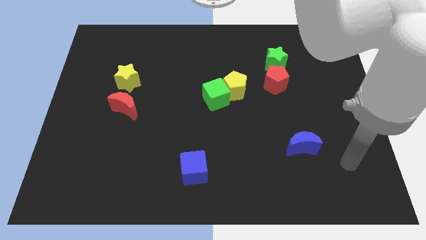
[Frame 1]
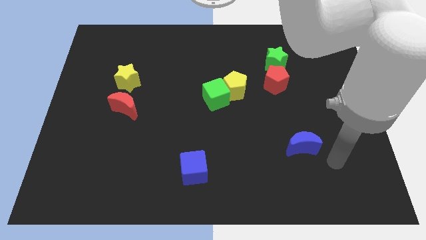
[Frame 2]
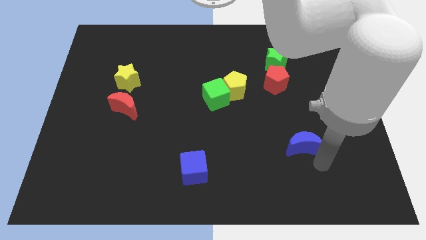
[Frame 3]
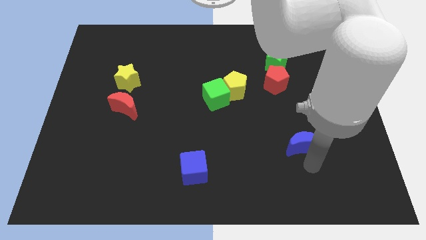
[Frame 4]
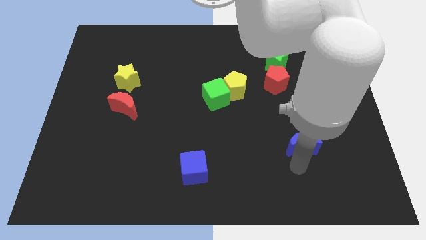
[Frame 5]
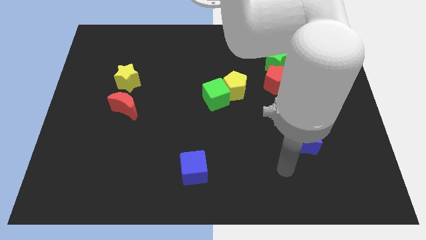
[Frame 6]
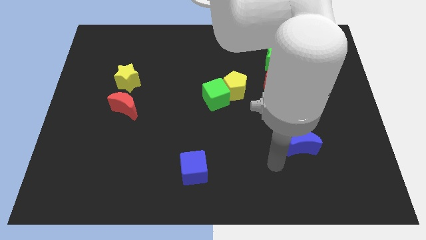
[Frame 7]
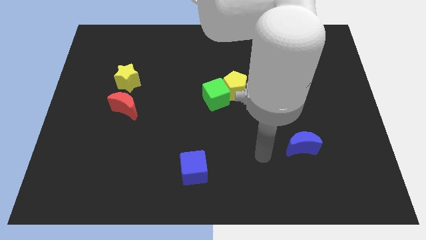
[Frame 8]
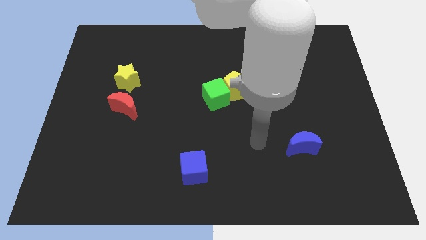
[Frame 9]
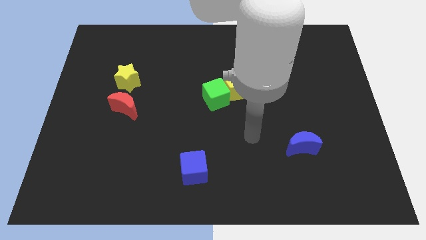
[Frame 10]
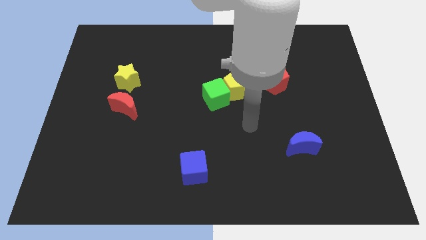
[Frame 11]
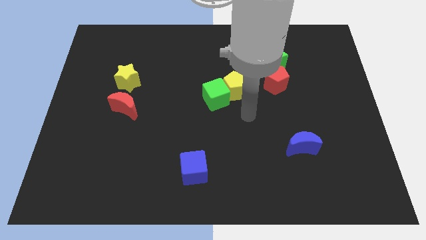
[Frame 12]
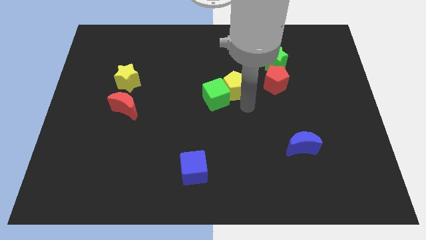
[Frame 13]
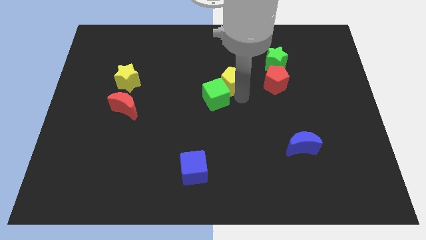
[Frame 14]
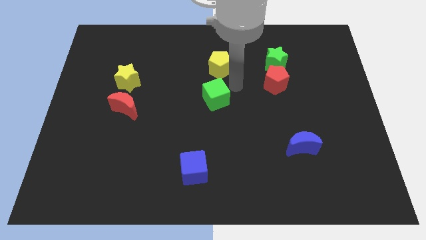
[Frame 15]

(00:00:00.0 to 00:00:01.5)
pull the green cube apart from the yellow pentagon

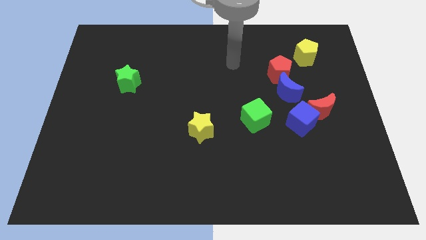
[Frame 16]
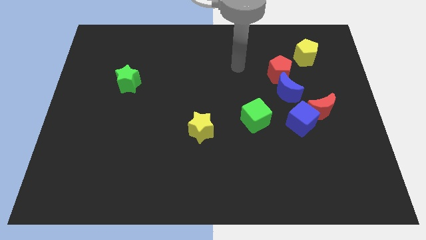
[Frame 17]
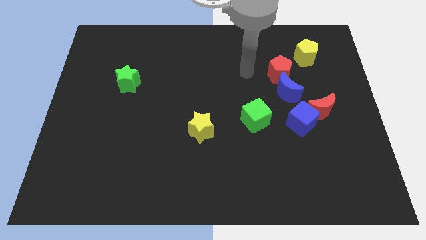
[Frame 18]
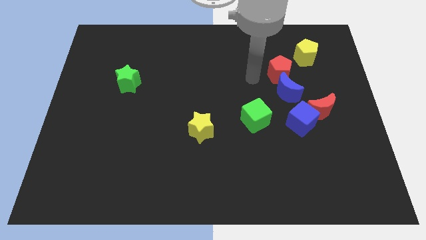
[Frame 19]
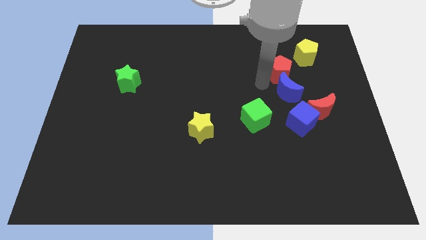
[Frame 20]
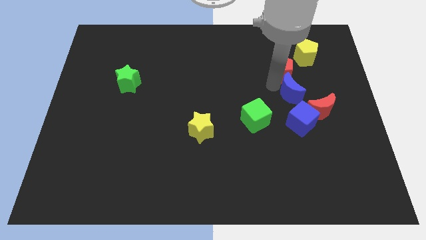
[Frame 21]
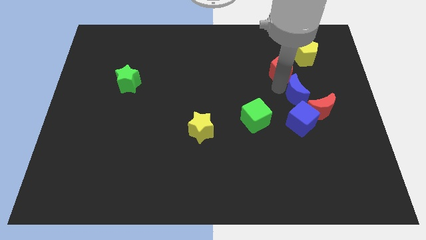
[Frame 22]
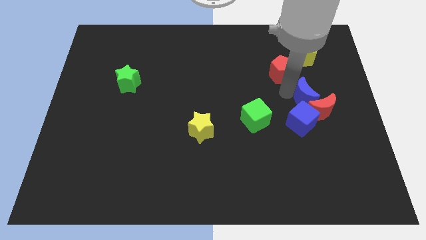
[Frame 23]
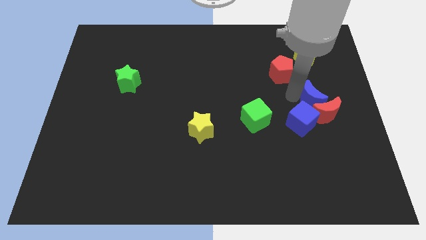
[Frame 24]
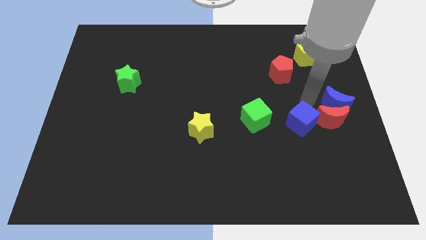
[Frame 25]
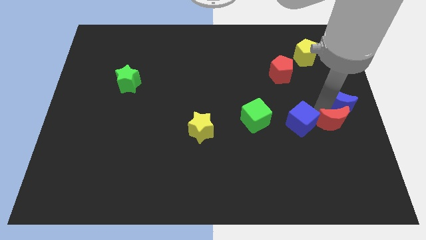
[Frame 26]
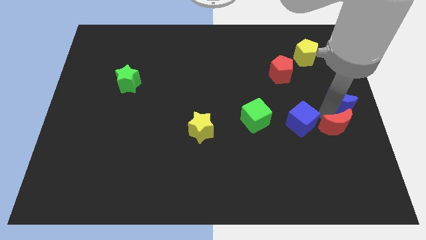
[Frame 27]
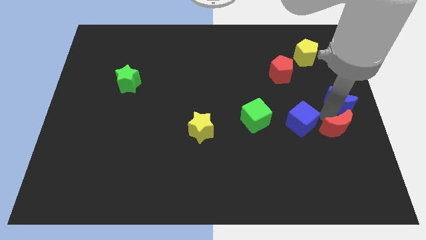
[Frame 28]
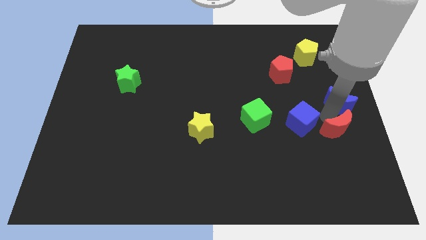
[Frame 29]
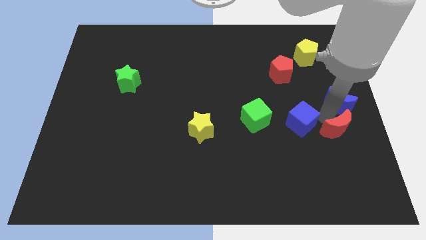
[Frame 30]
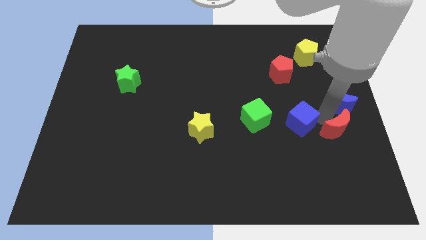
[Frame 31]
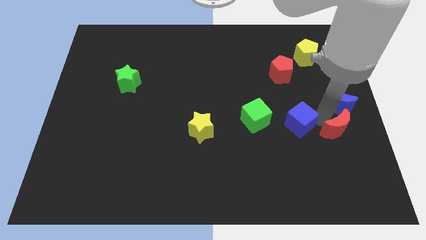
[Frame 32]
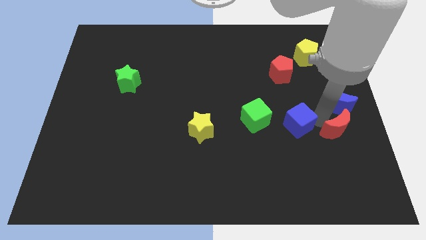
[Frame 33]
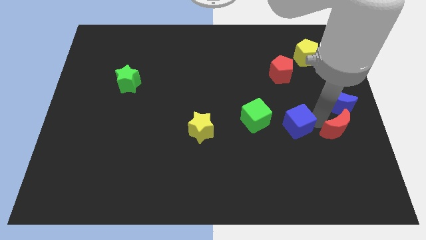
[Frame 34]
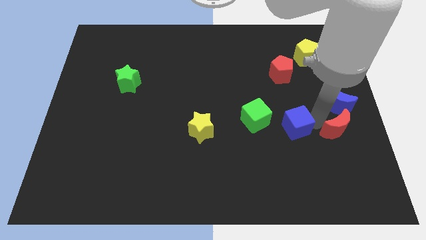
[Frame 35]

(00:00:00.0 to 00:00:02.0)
separate the blue cube from the red moon and blue moon

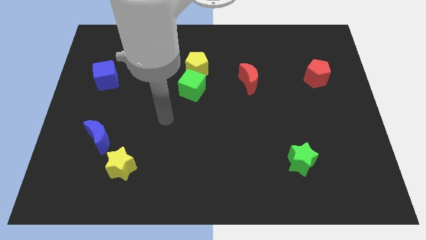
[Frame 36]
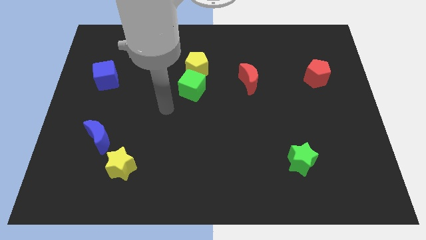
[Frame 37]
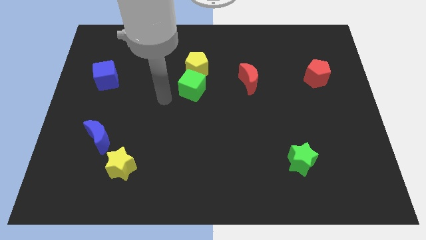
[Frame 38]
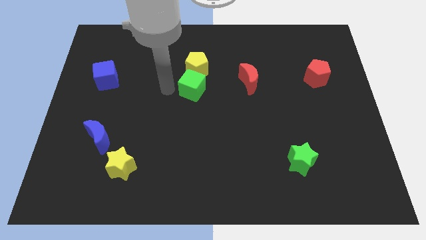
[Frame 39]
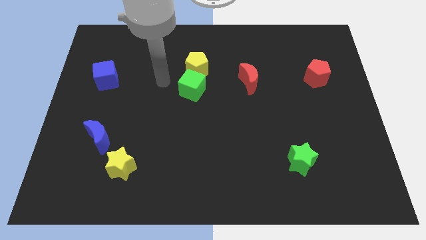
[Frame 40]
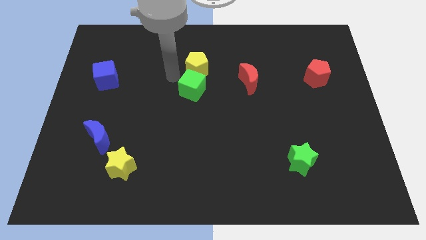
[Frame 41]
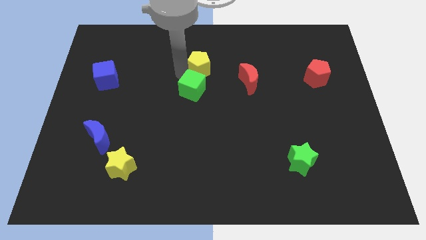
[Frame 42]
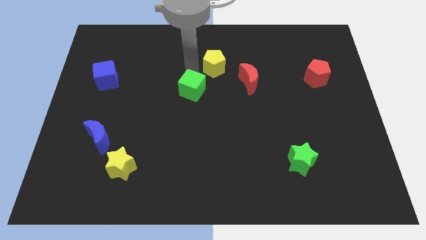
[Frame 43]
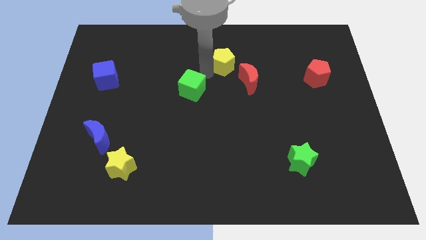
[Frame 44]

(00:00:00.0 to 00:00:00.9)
move the green cube away from the yellow pentagon

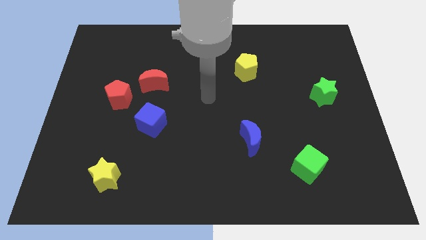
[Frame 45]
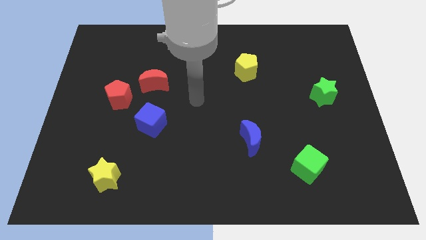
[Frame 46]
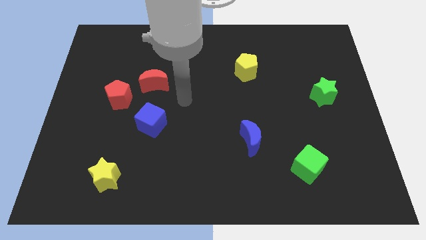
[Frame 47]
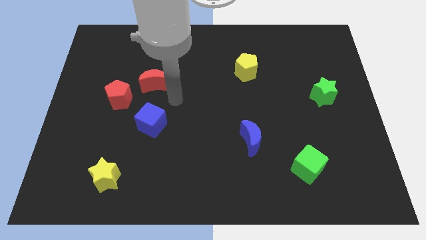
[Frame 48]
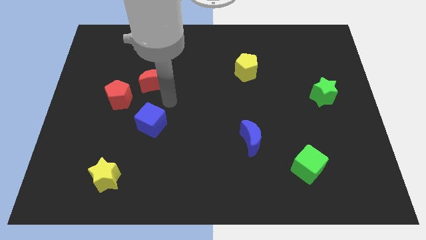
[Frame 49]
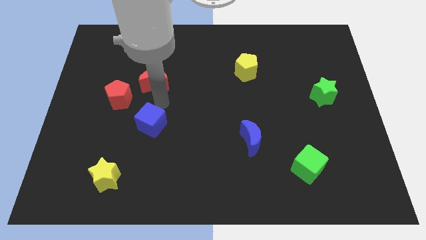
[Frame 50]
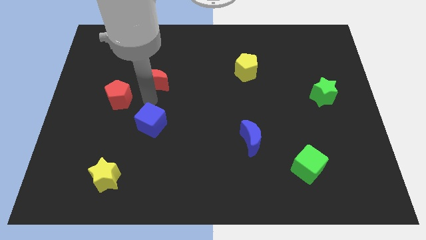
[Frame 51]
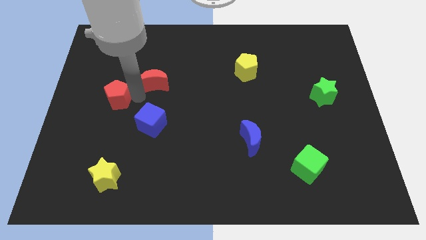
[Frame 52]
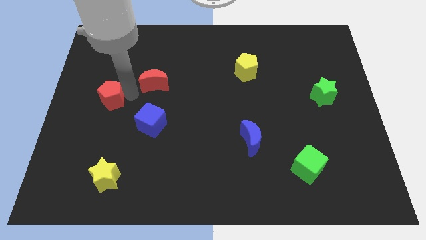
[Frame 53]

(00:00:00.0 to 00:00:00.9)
pull the red moon apart from the red pentagon

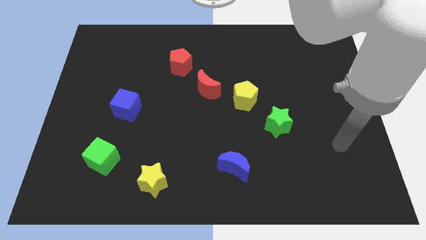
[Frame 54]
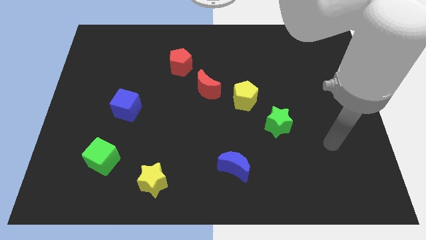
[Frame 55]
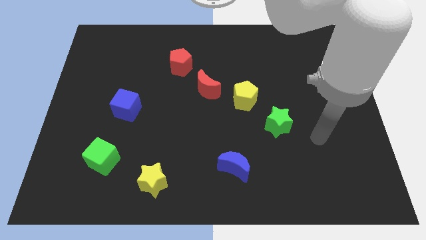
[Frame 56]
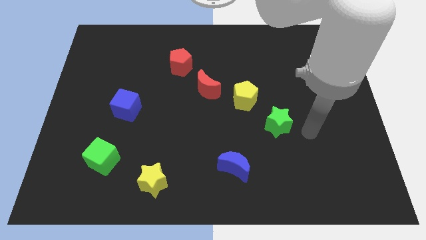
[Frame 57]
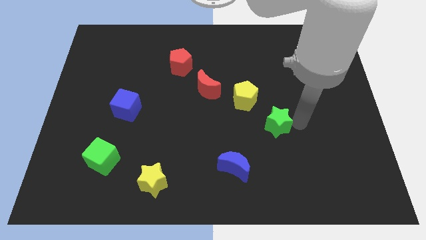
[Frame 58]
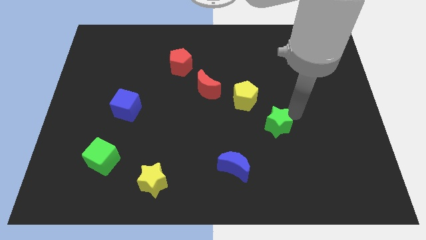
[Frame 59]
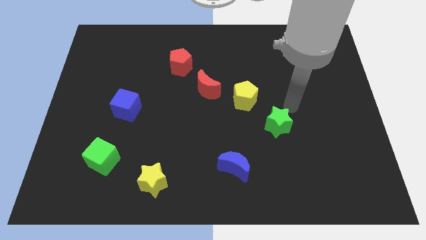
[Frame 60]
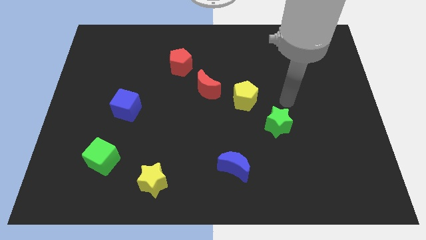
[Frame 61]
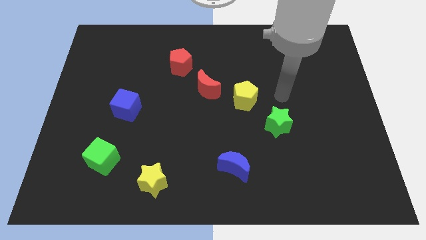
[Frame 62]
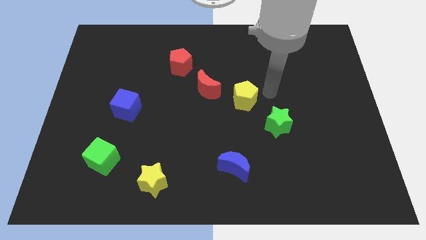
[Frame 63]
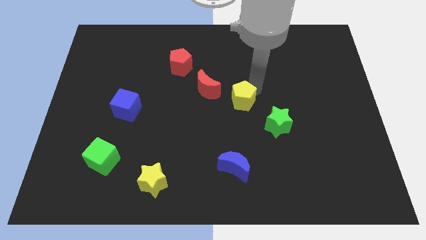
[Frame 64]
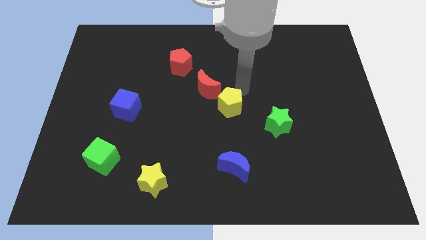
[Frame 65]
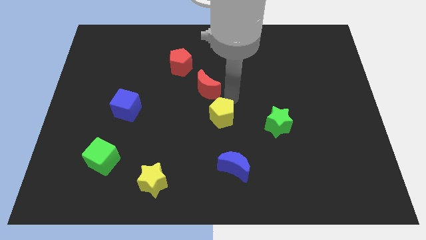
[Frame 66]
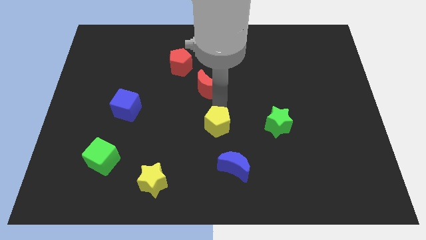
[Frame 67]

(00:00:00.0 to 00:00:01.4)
separate the red moon from the yellow pentagon

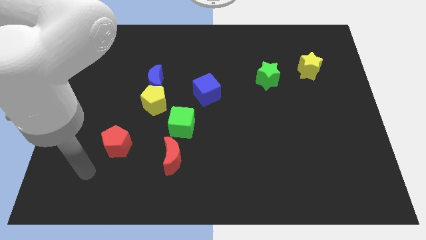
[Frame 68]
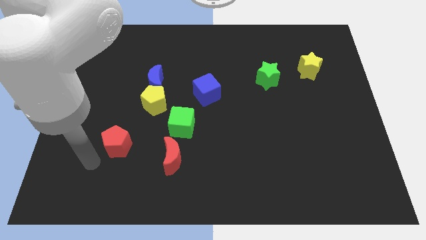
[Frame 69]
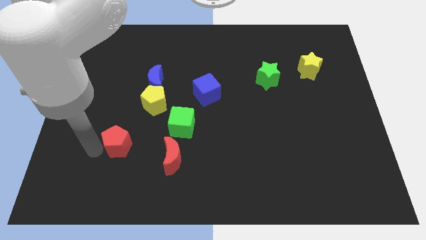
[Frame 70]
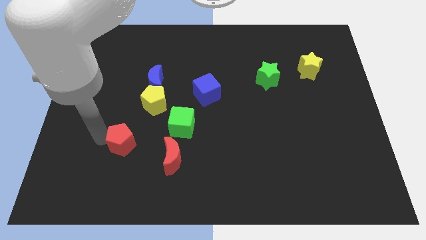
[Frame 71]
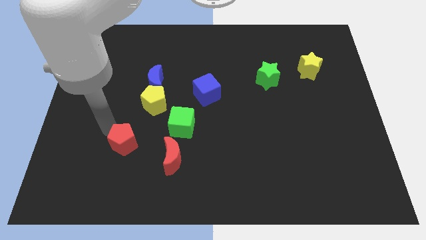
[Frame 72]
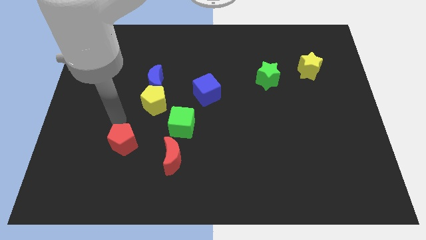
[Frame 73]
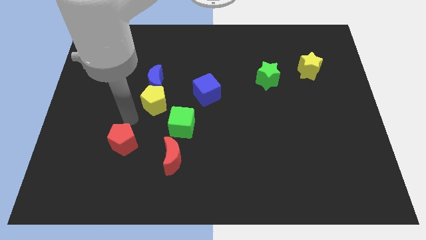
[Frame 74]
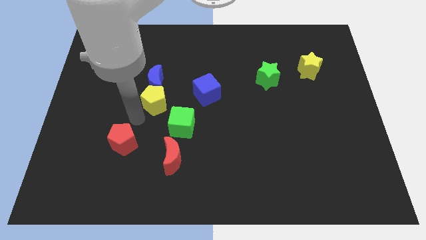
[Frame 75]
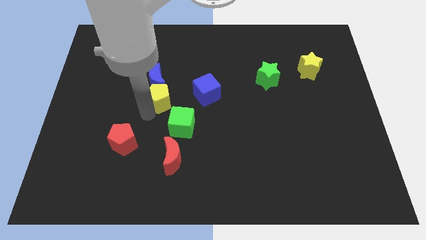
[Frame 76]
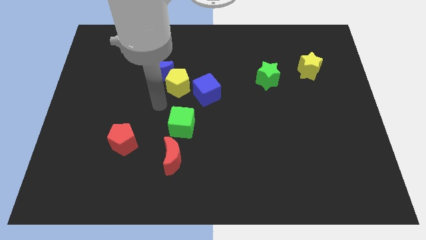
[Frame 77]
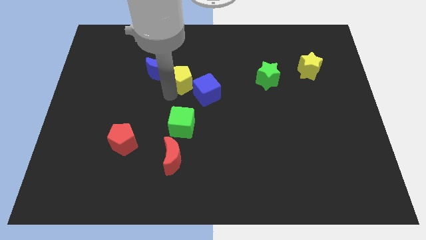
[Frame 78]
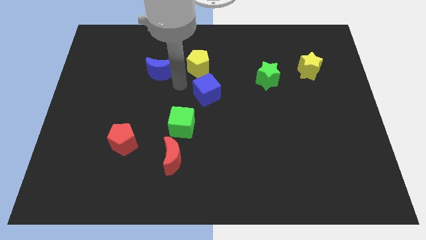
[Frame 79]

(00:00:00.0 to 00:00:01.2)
pull the blue moon apart from the yellow pentagon

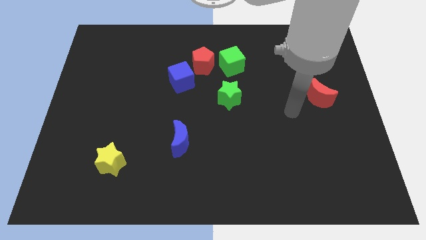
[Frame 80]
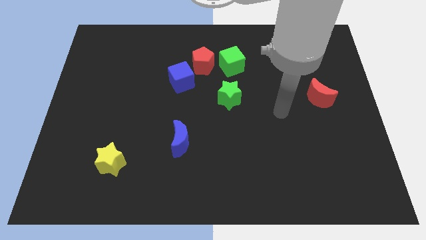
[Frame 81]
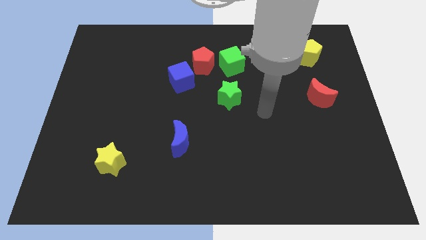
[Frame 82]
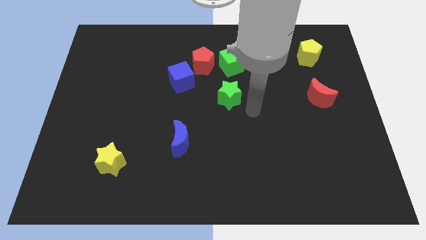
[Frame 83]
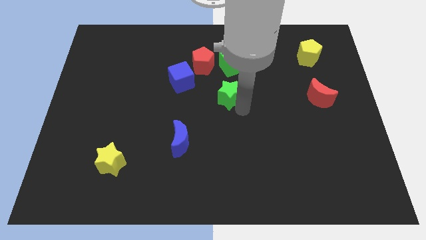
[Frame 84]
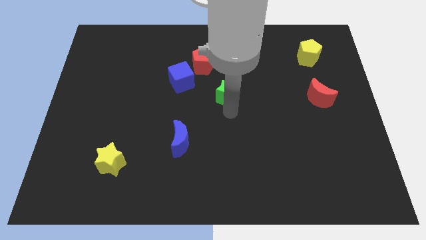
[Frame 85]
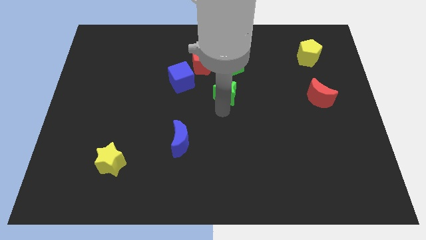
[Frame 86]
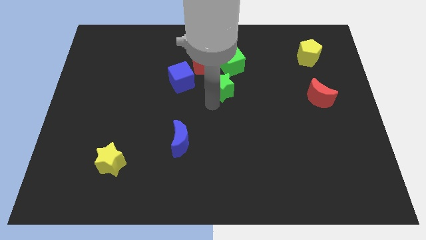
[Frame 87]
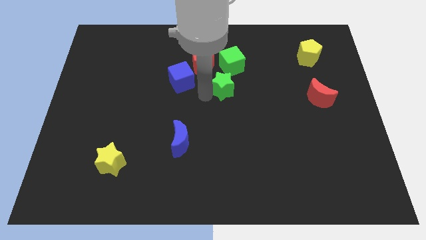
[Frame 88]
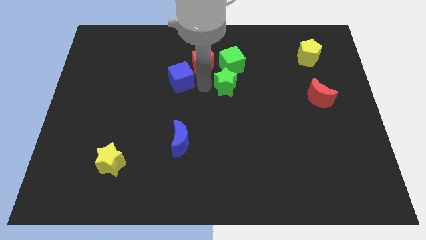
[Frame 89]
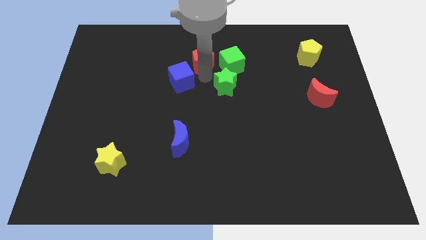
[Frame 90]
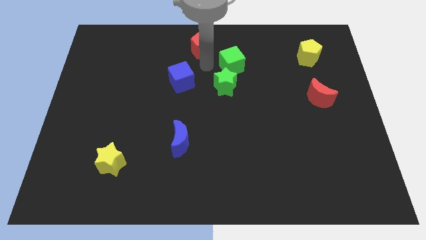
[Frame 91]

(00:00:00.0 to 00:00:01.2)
pull the green cube apart from the red pentagon

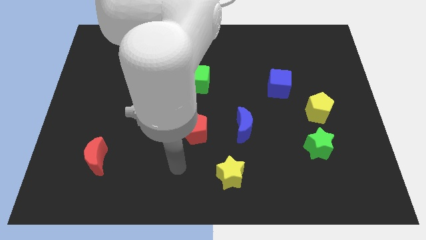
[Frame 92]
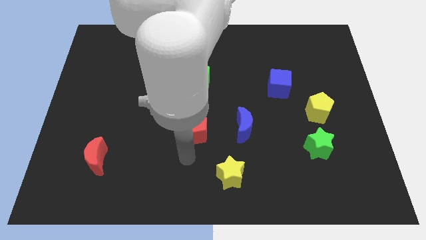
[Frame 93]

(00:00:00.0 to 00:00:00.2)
move the green star away from the yellow pentagon
